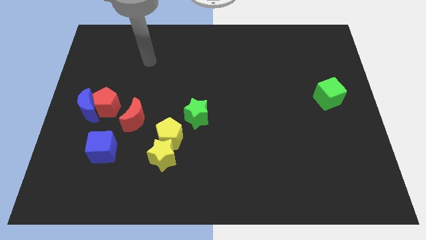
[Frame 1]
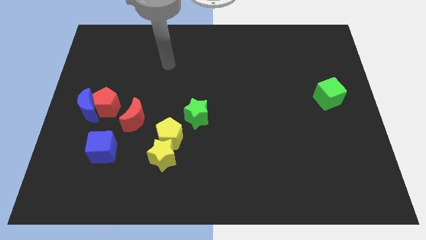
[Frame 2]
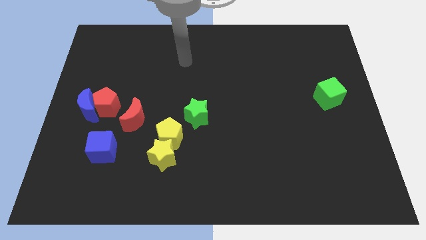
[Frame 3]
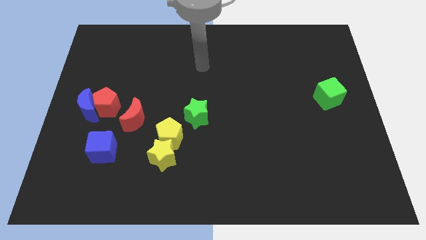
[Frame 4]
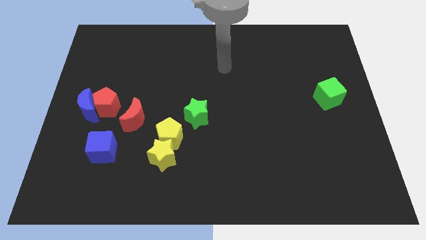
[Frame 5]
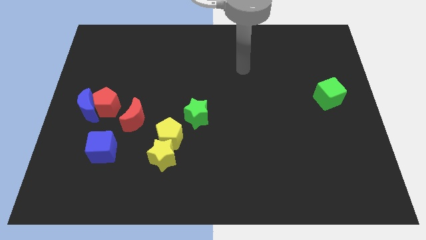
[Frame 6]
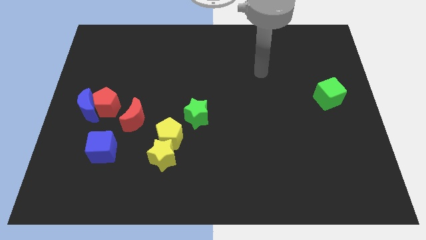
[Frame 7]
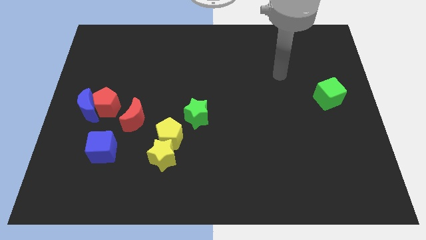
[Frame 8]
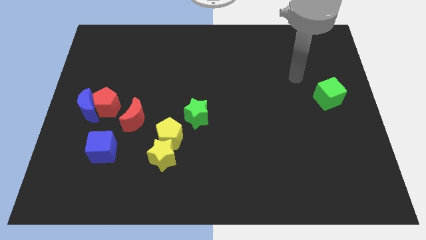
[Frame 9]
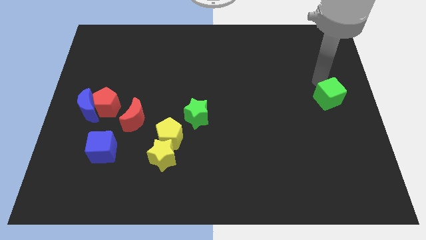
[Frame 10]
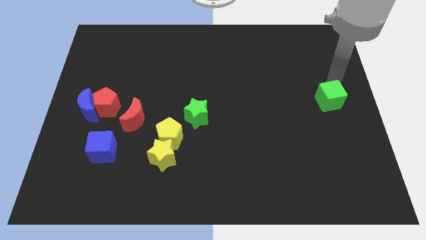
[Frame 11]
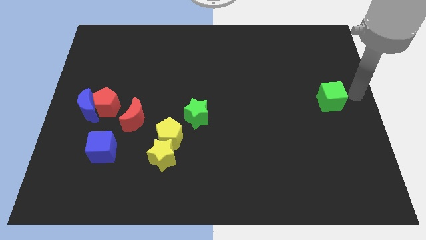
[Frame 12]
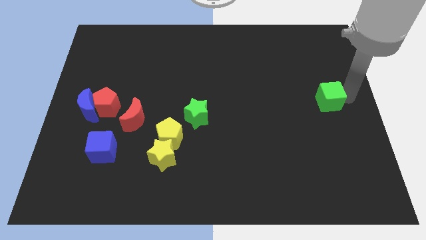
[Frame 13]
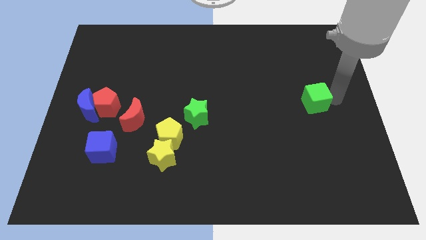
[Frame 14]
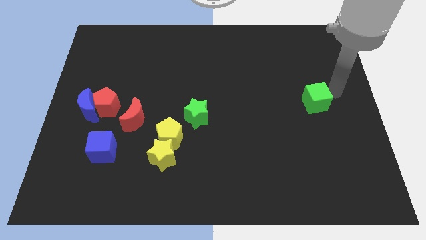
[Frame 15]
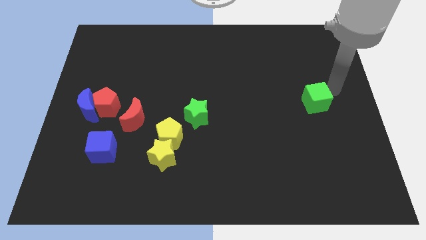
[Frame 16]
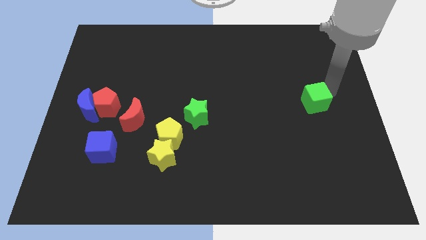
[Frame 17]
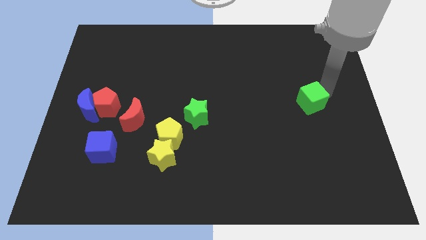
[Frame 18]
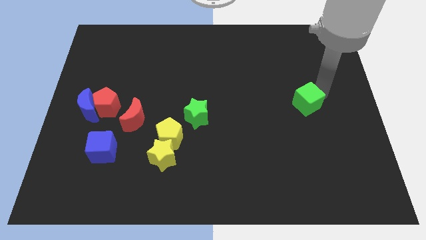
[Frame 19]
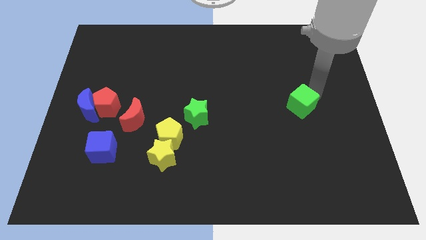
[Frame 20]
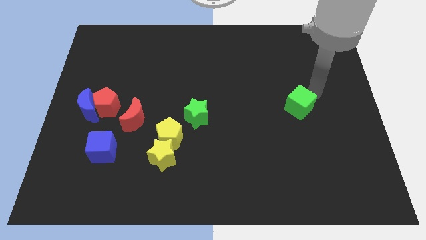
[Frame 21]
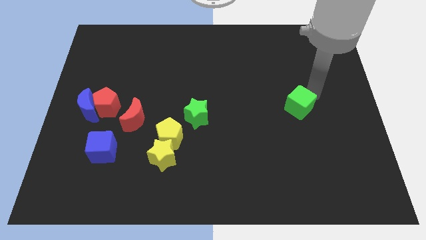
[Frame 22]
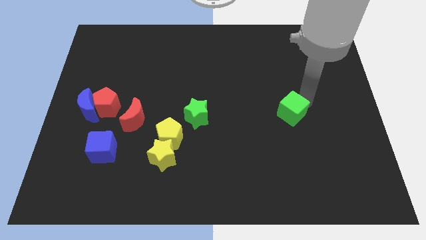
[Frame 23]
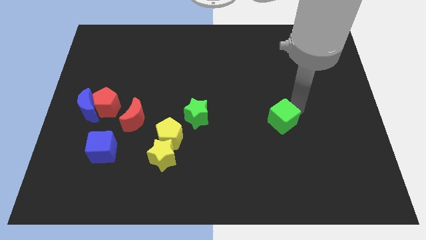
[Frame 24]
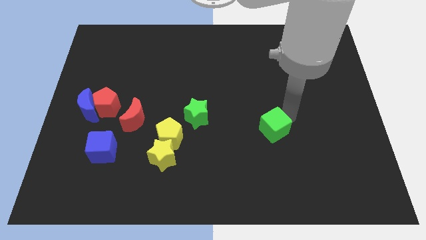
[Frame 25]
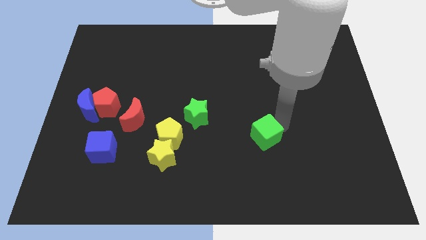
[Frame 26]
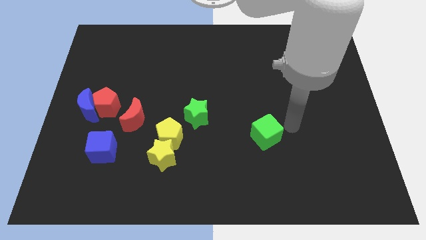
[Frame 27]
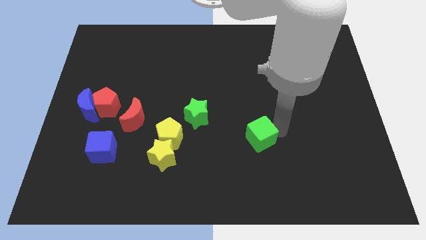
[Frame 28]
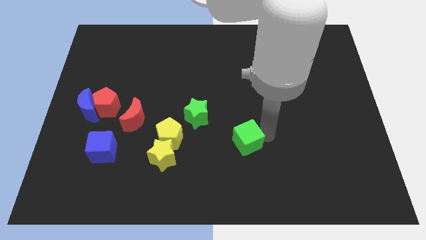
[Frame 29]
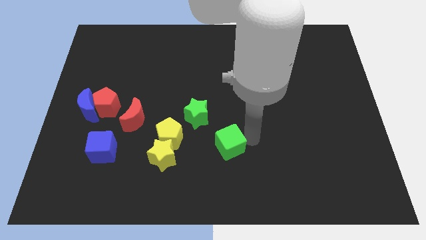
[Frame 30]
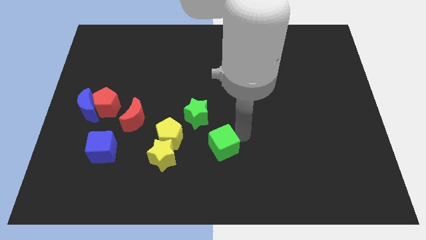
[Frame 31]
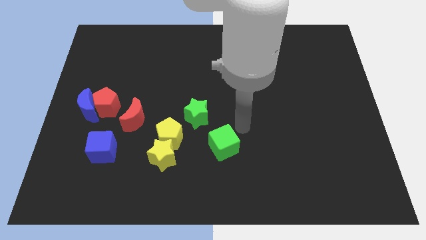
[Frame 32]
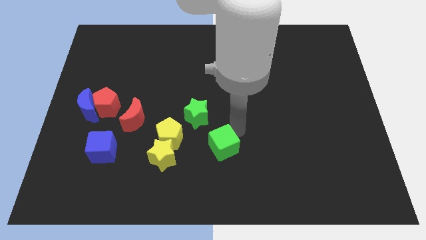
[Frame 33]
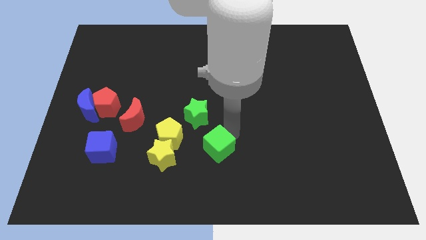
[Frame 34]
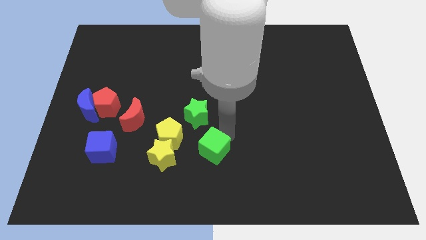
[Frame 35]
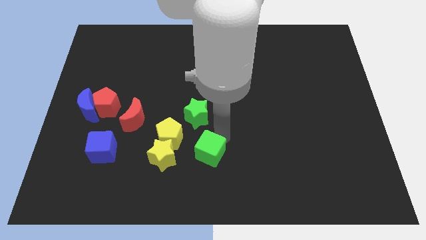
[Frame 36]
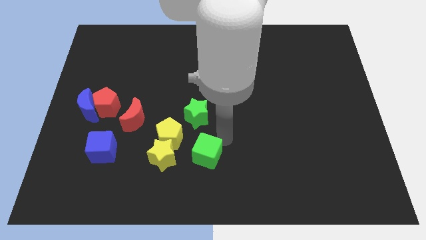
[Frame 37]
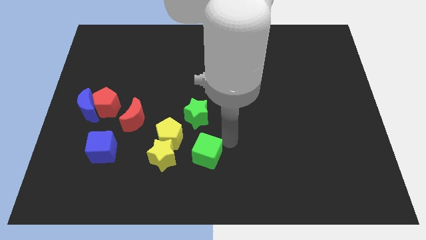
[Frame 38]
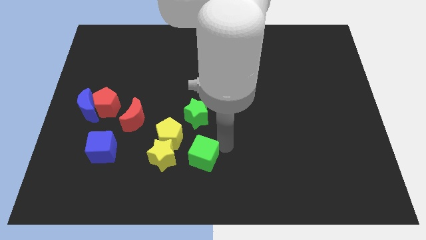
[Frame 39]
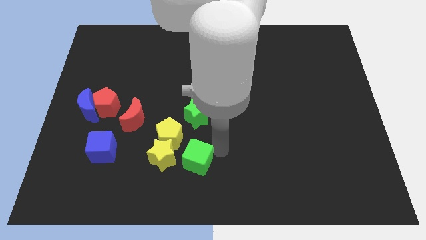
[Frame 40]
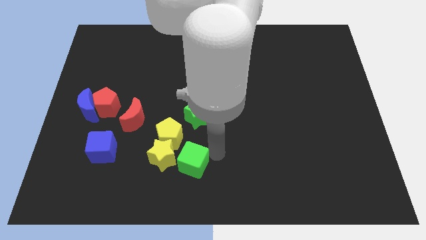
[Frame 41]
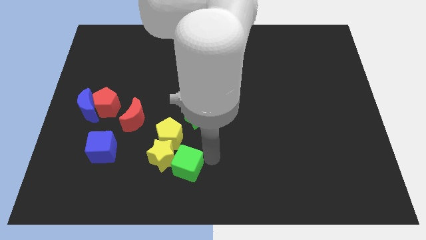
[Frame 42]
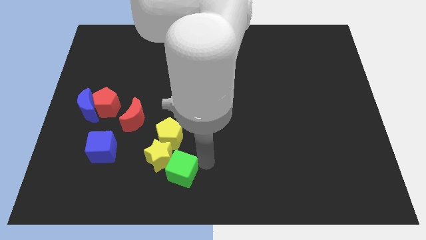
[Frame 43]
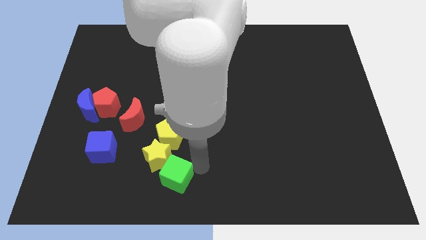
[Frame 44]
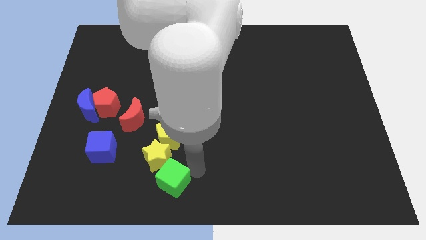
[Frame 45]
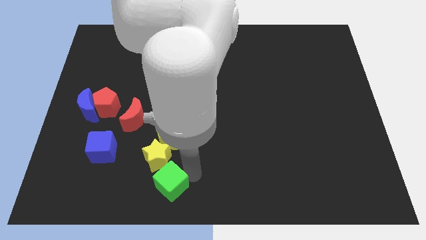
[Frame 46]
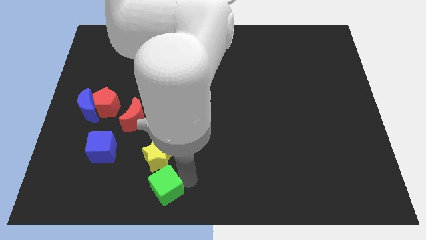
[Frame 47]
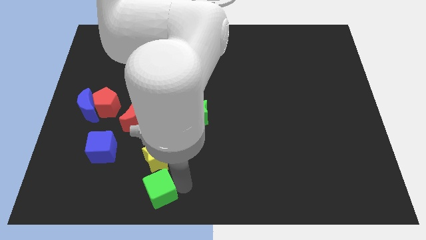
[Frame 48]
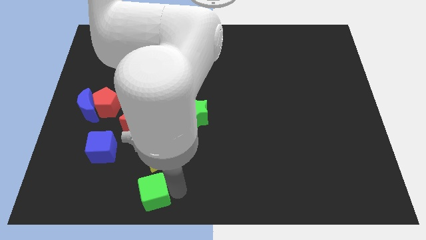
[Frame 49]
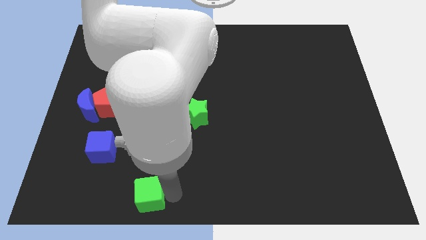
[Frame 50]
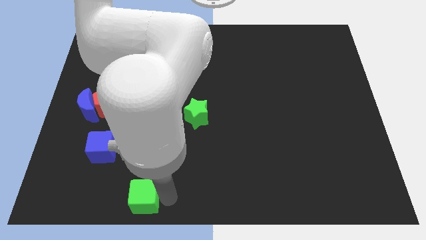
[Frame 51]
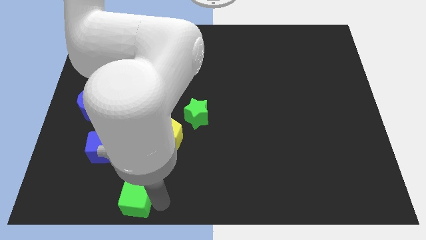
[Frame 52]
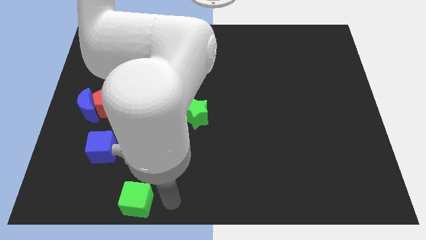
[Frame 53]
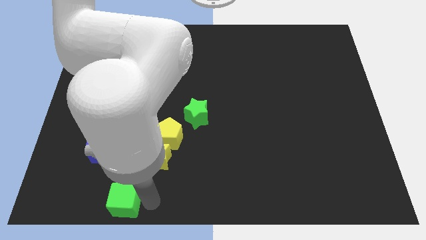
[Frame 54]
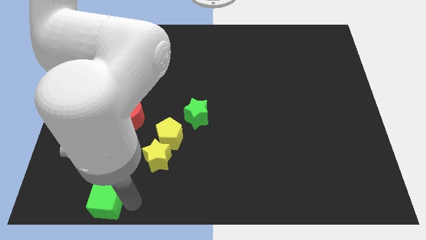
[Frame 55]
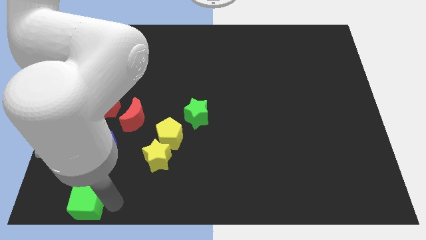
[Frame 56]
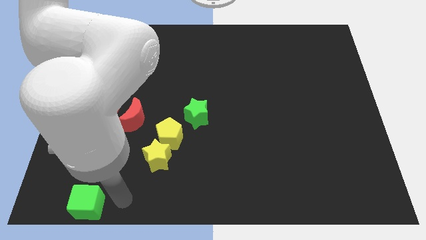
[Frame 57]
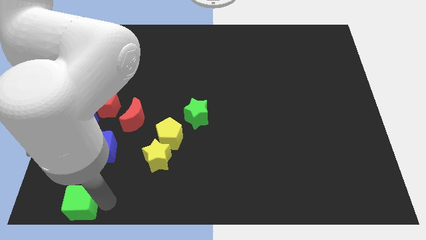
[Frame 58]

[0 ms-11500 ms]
slide the green cube to the bottom left corner

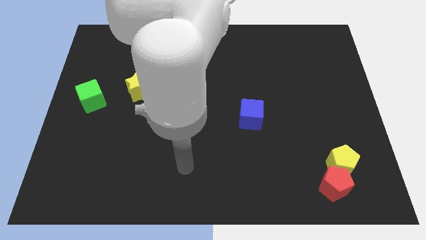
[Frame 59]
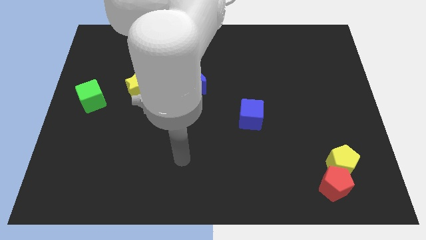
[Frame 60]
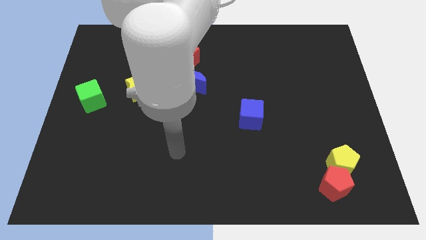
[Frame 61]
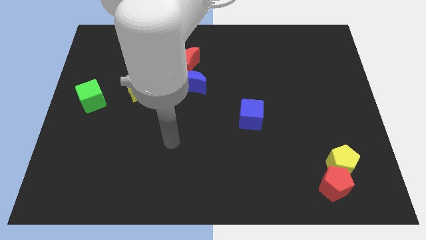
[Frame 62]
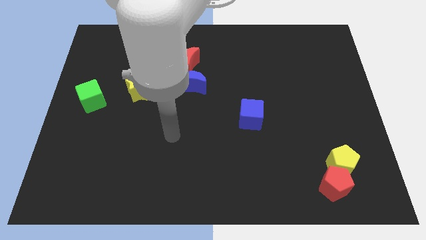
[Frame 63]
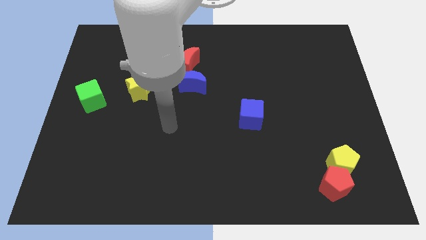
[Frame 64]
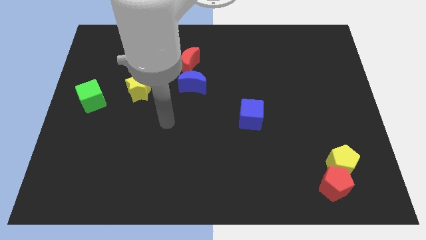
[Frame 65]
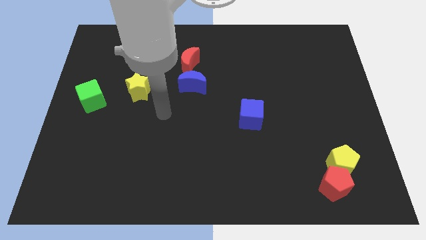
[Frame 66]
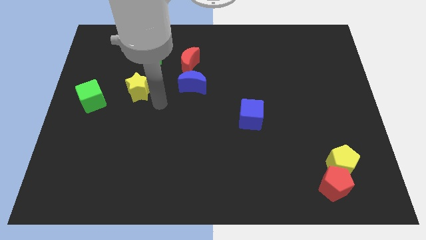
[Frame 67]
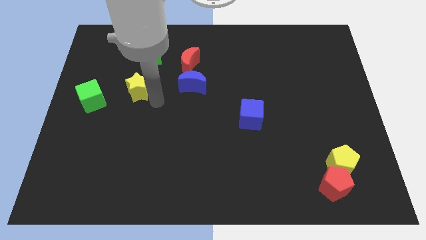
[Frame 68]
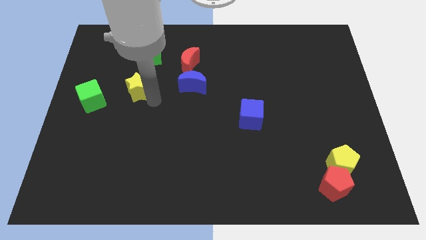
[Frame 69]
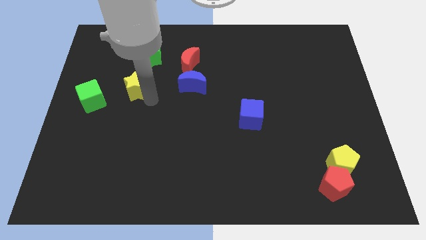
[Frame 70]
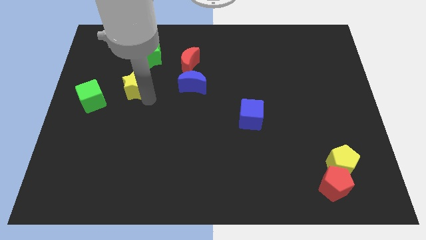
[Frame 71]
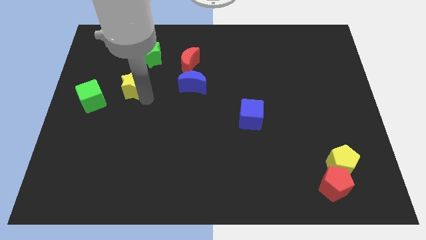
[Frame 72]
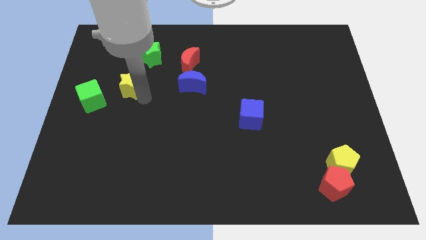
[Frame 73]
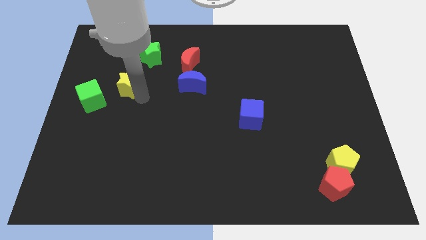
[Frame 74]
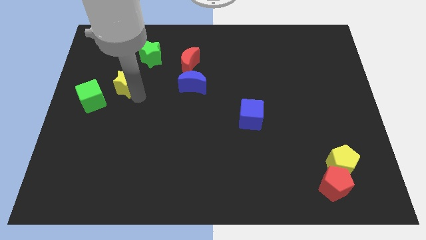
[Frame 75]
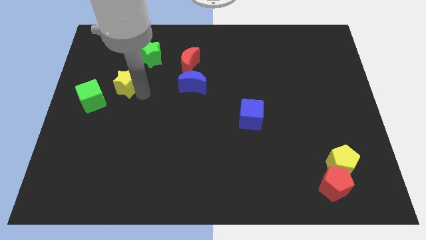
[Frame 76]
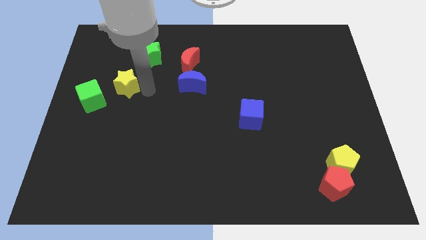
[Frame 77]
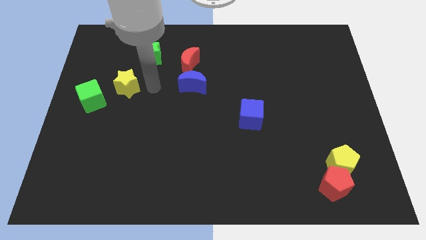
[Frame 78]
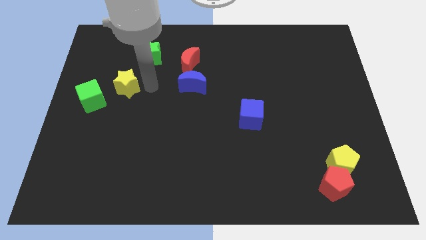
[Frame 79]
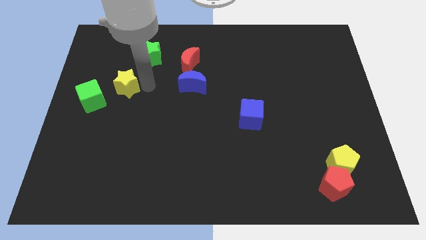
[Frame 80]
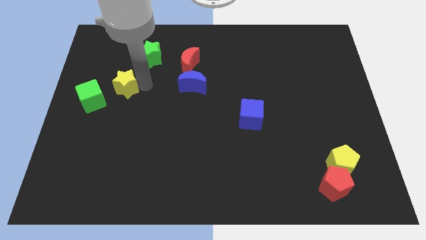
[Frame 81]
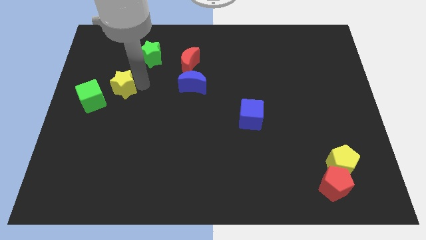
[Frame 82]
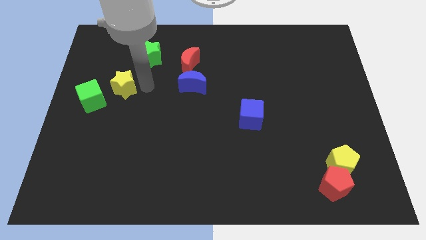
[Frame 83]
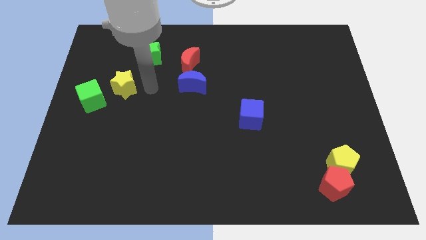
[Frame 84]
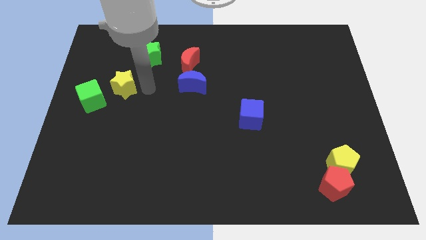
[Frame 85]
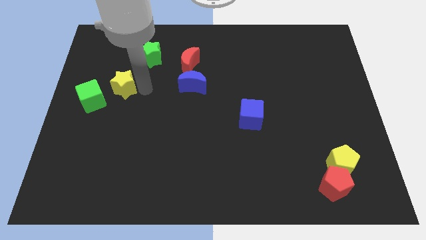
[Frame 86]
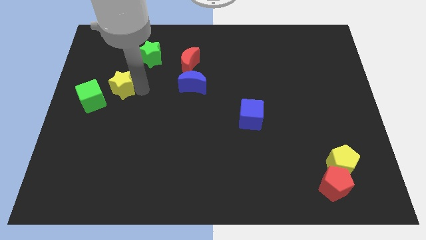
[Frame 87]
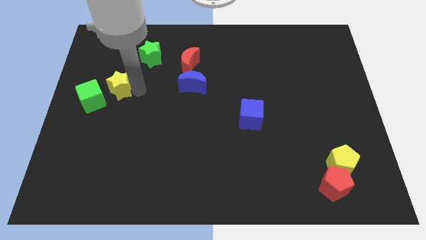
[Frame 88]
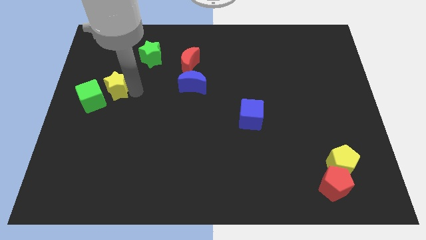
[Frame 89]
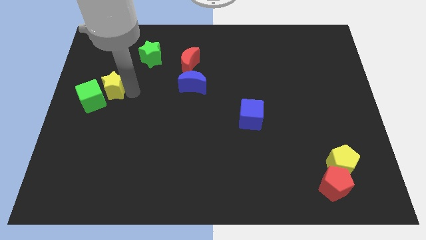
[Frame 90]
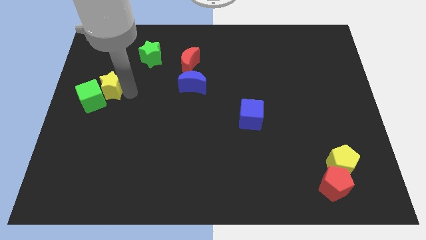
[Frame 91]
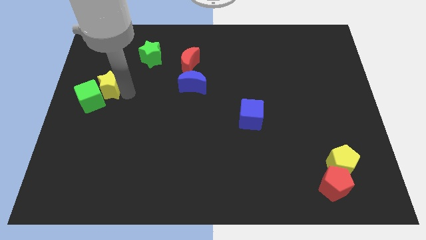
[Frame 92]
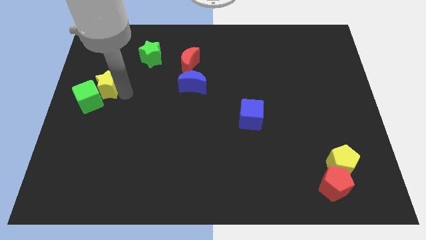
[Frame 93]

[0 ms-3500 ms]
move the yellow star to the center left
